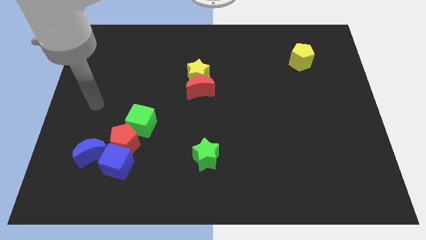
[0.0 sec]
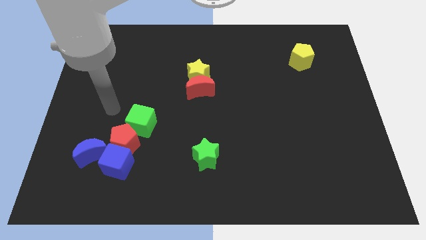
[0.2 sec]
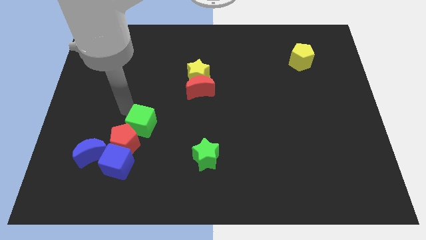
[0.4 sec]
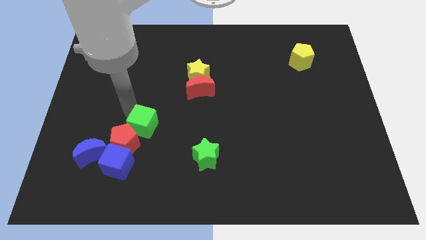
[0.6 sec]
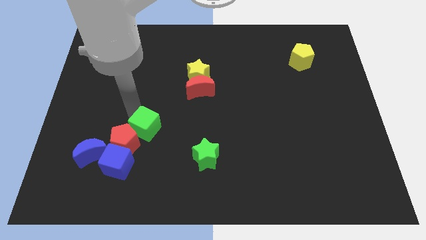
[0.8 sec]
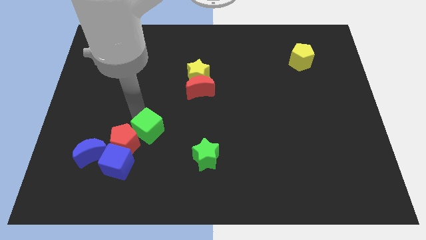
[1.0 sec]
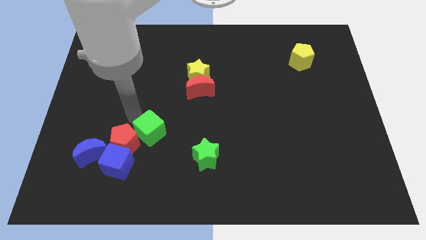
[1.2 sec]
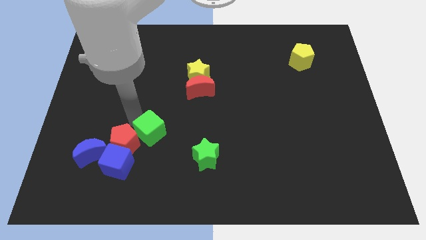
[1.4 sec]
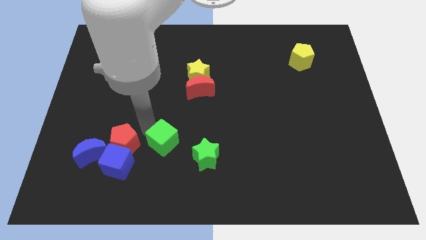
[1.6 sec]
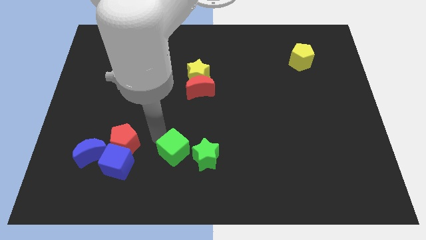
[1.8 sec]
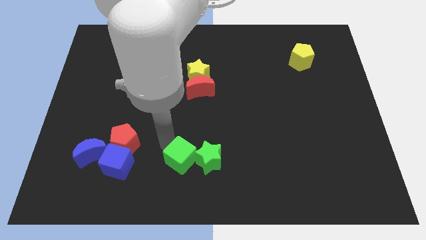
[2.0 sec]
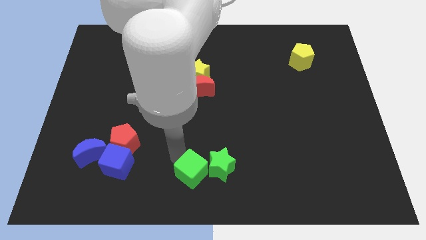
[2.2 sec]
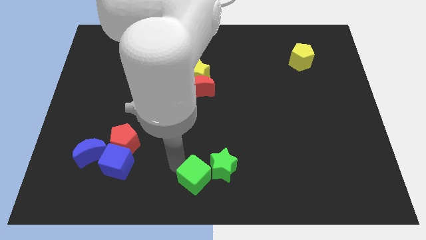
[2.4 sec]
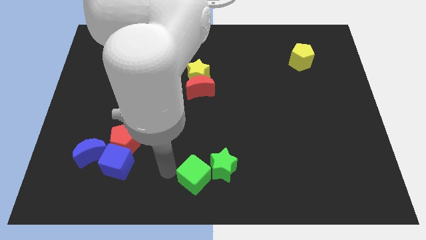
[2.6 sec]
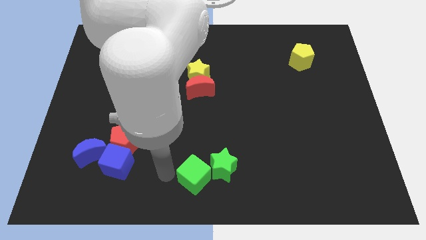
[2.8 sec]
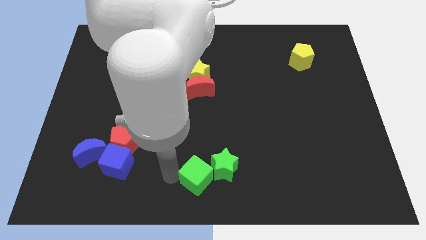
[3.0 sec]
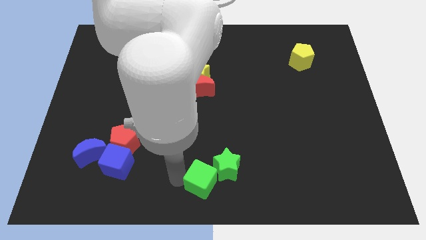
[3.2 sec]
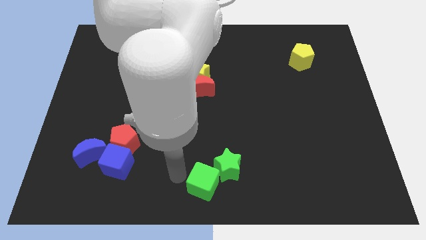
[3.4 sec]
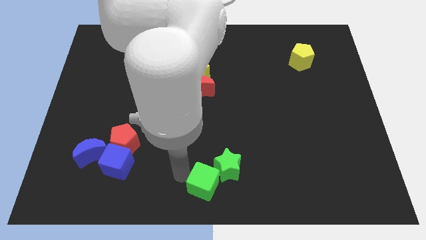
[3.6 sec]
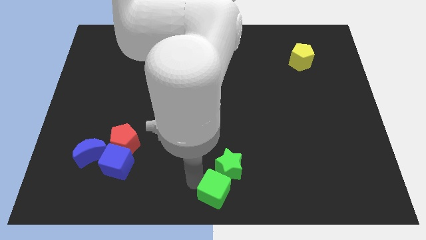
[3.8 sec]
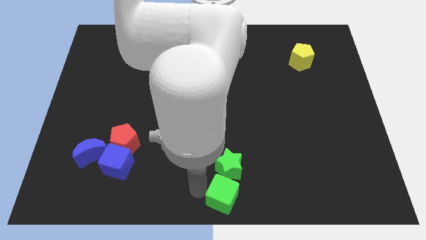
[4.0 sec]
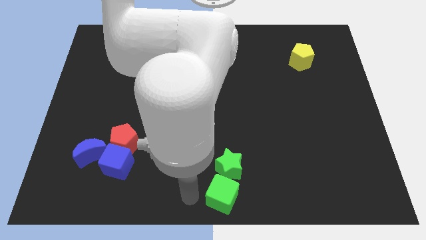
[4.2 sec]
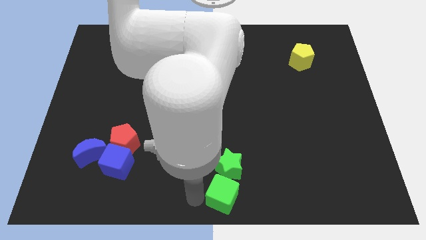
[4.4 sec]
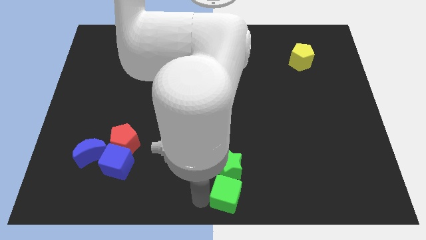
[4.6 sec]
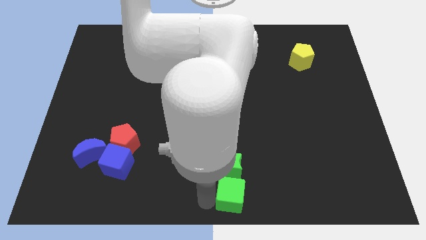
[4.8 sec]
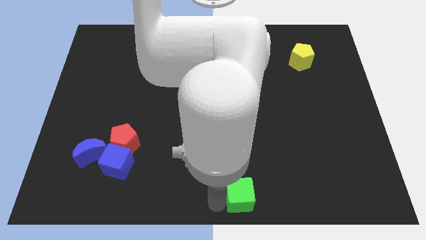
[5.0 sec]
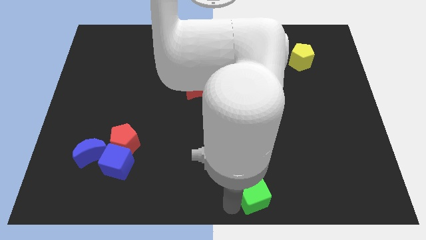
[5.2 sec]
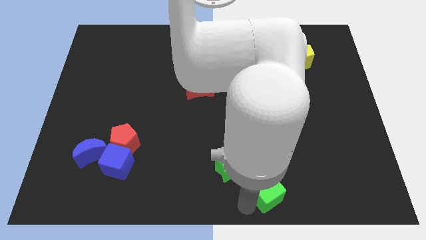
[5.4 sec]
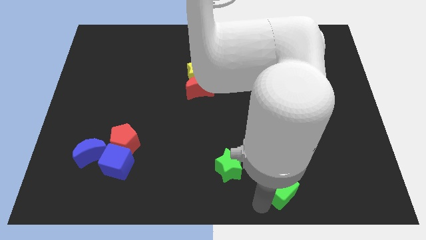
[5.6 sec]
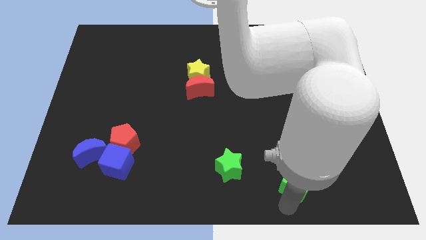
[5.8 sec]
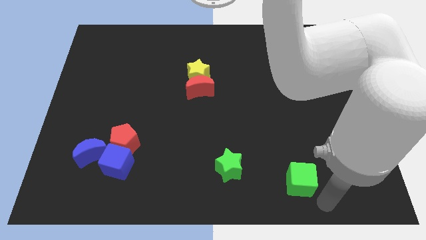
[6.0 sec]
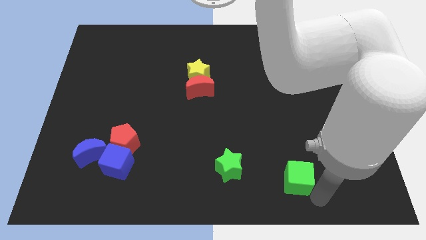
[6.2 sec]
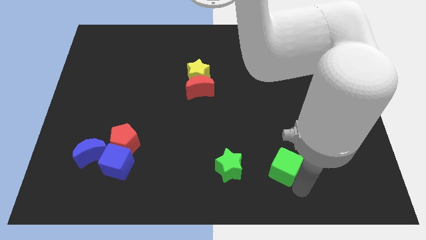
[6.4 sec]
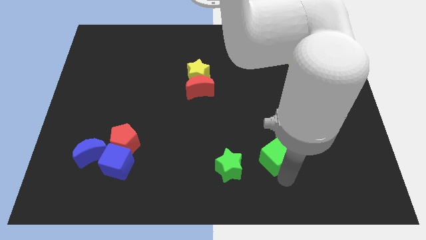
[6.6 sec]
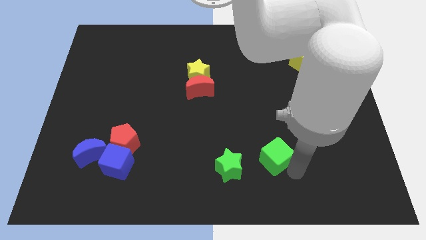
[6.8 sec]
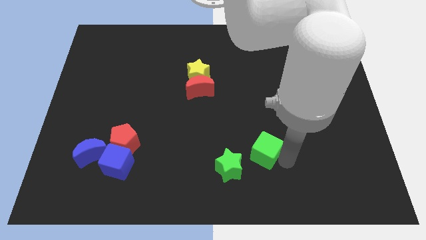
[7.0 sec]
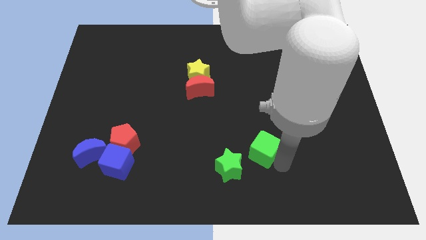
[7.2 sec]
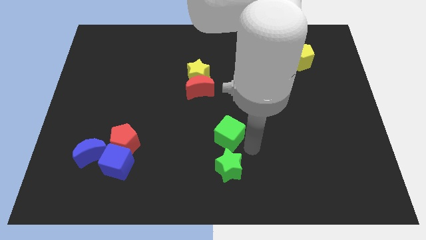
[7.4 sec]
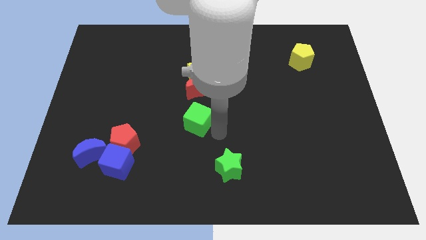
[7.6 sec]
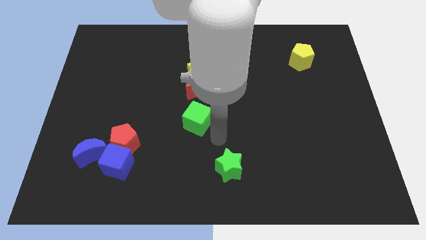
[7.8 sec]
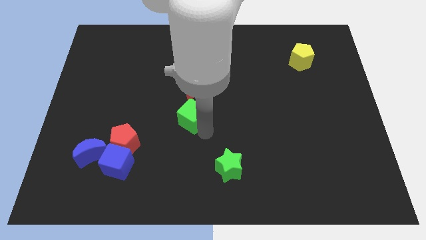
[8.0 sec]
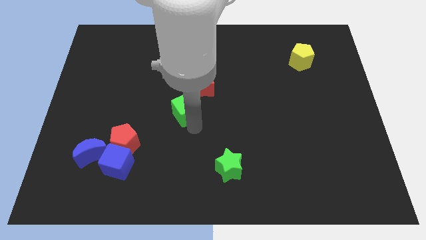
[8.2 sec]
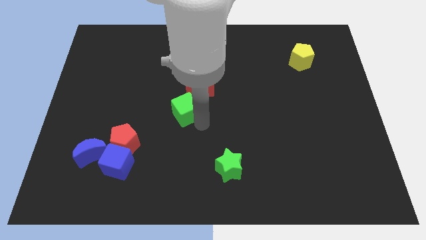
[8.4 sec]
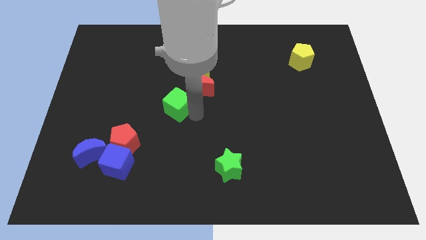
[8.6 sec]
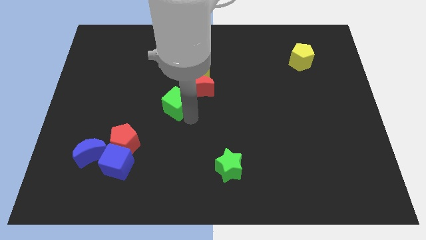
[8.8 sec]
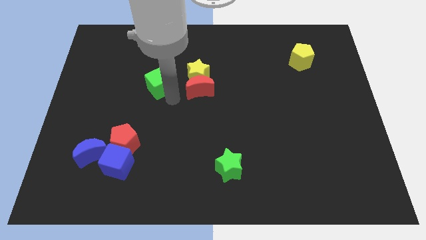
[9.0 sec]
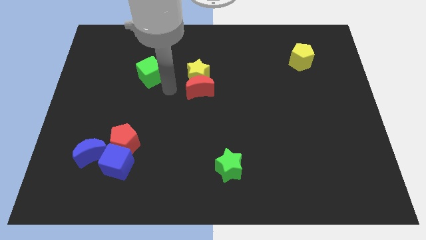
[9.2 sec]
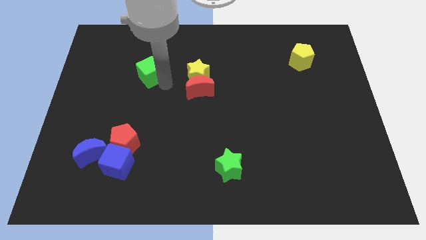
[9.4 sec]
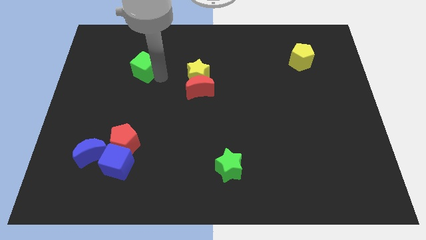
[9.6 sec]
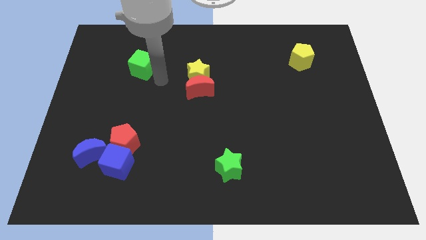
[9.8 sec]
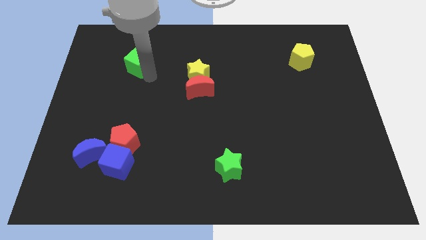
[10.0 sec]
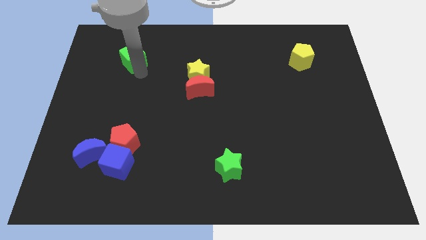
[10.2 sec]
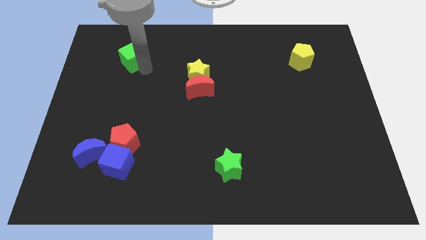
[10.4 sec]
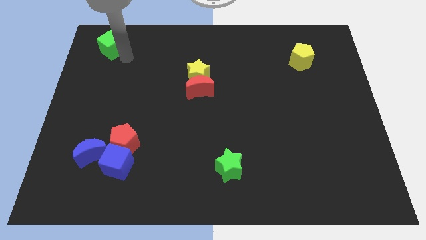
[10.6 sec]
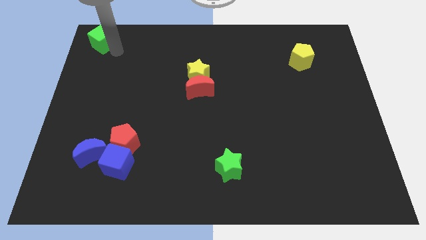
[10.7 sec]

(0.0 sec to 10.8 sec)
move the green cube to the top left of the board

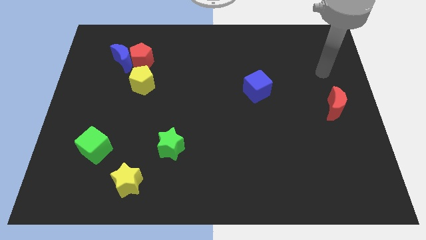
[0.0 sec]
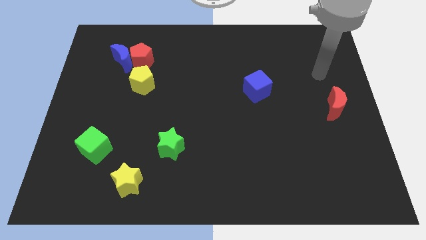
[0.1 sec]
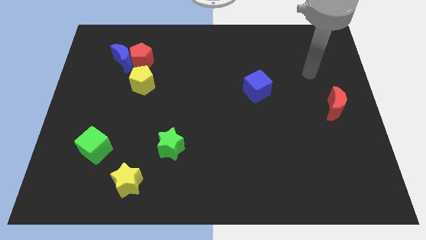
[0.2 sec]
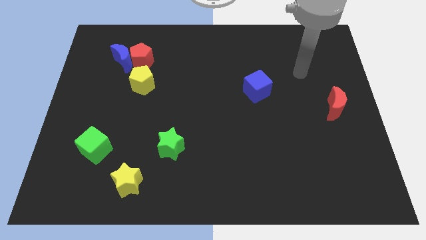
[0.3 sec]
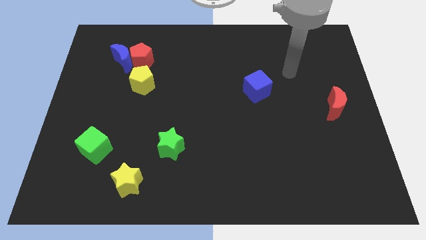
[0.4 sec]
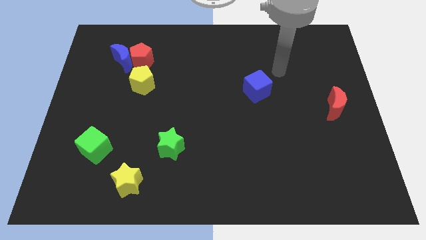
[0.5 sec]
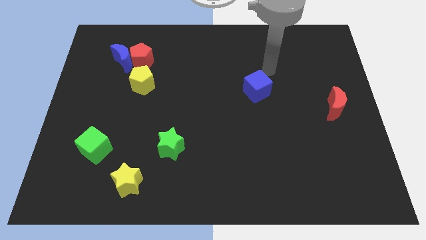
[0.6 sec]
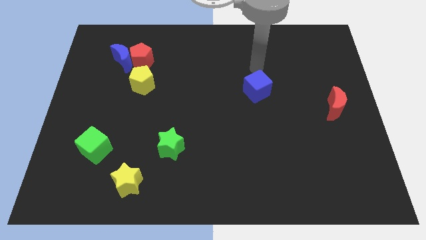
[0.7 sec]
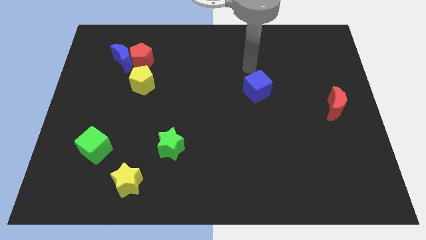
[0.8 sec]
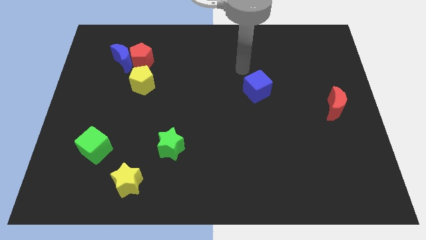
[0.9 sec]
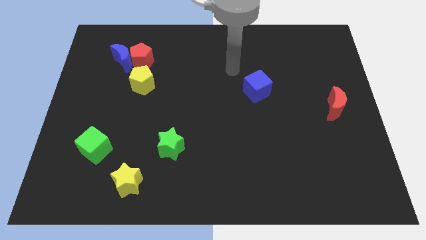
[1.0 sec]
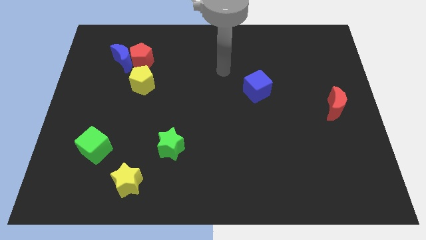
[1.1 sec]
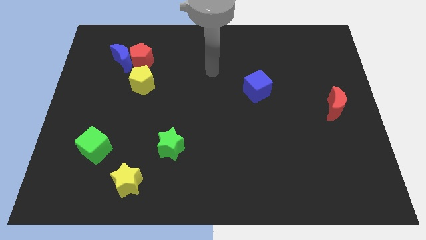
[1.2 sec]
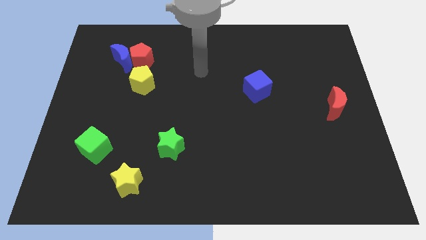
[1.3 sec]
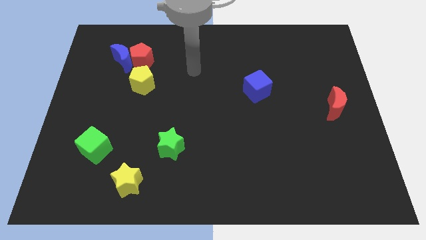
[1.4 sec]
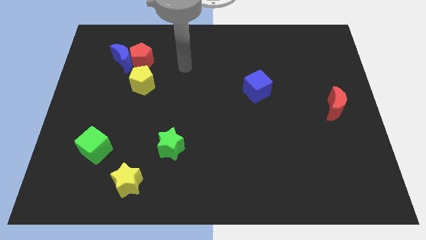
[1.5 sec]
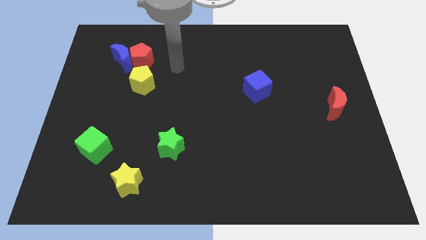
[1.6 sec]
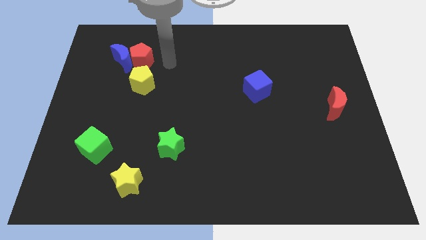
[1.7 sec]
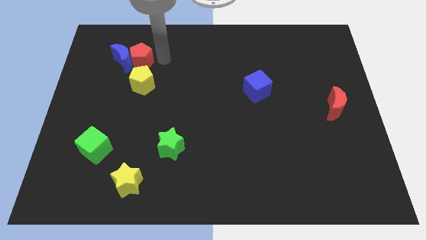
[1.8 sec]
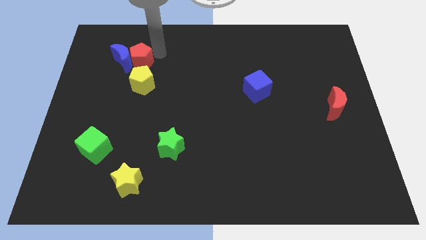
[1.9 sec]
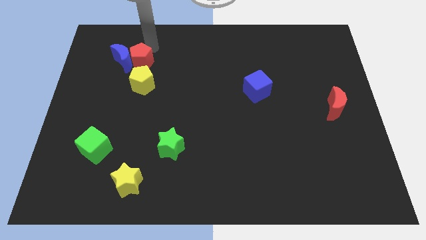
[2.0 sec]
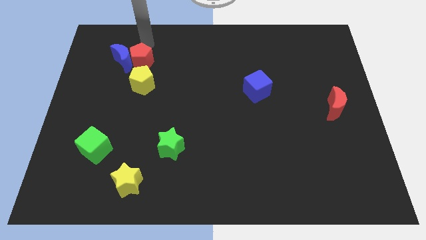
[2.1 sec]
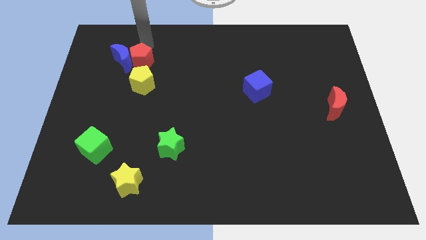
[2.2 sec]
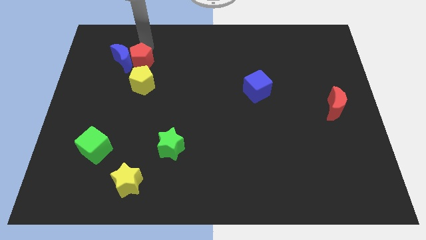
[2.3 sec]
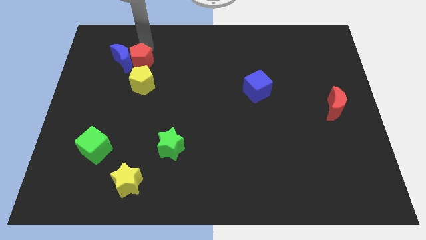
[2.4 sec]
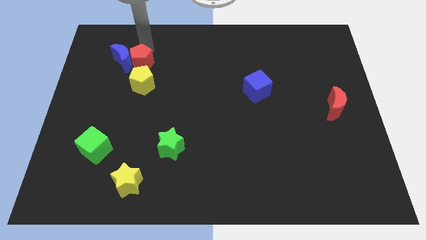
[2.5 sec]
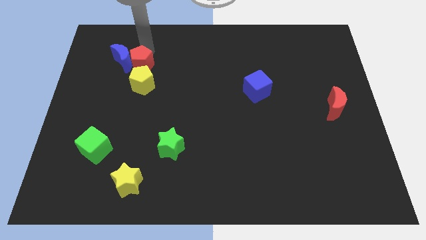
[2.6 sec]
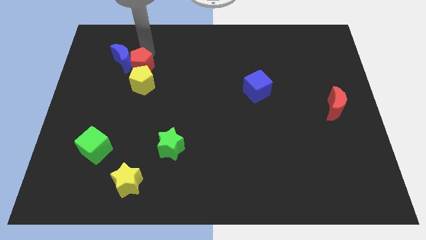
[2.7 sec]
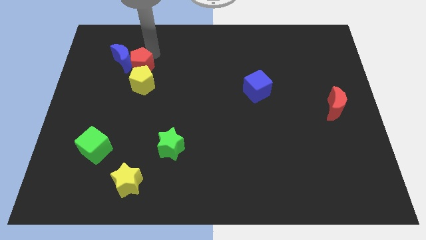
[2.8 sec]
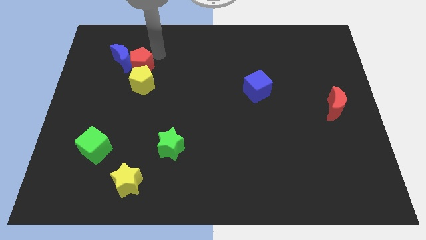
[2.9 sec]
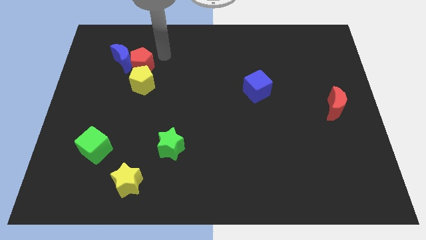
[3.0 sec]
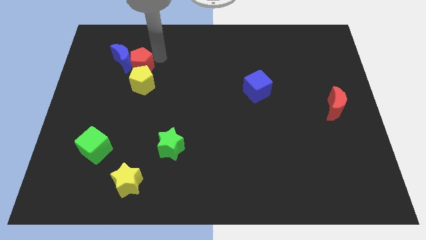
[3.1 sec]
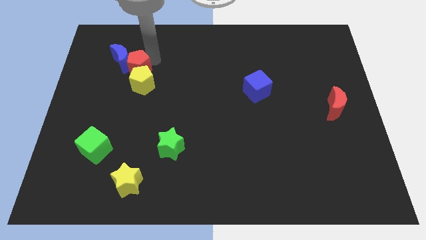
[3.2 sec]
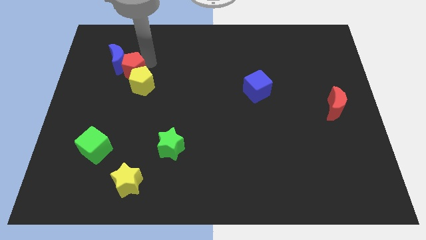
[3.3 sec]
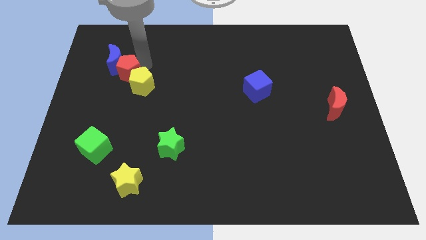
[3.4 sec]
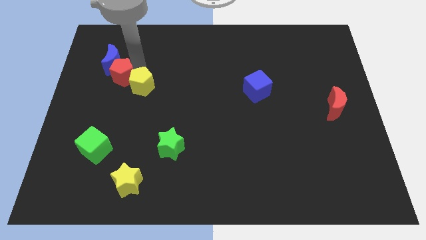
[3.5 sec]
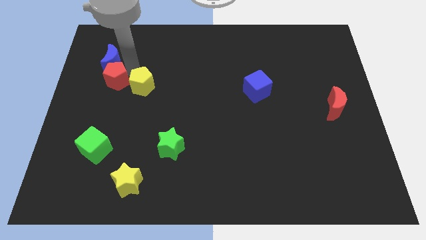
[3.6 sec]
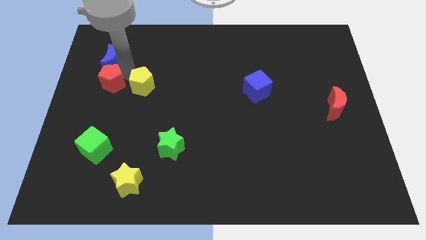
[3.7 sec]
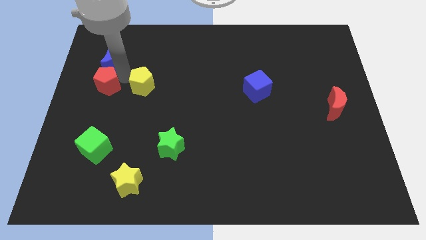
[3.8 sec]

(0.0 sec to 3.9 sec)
push the red pentagon to the left side
